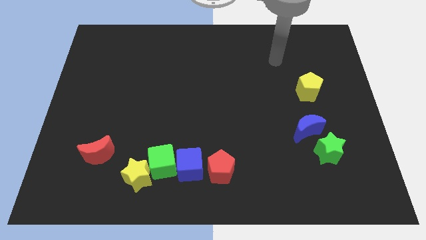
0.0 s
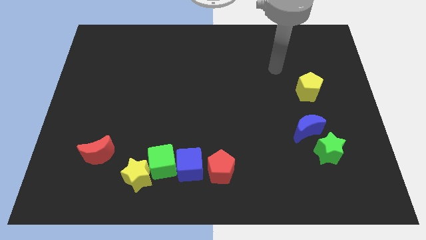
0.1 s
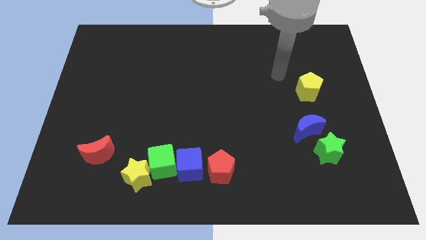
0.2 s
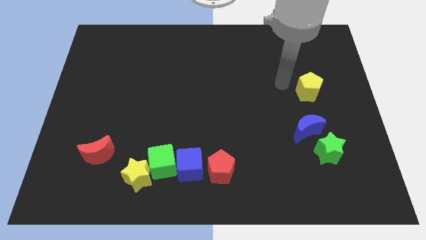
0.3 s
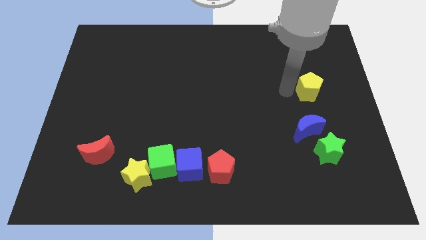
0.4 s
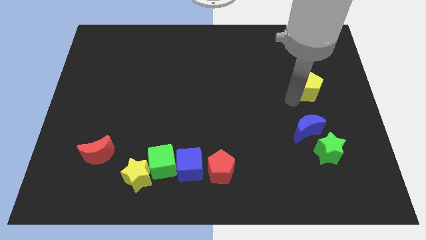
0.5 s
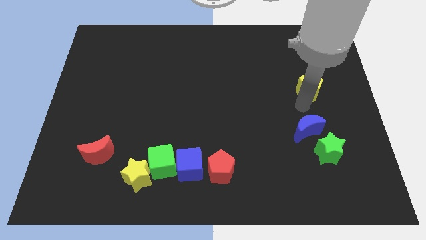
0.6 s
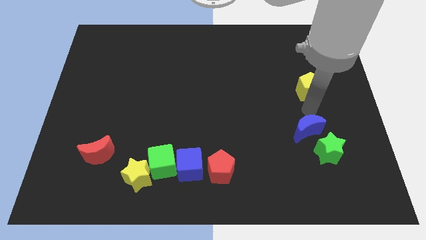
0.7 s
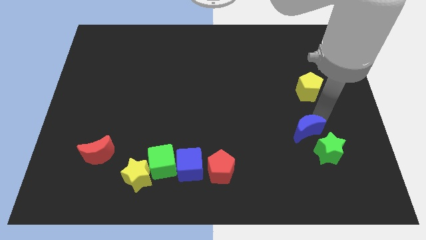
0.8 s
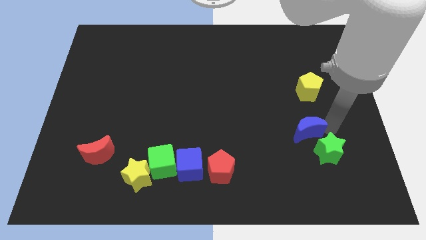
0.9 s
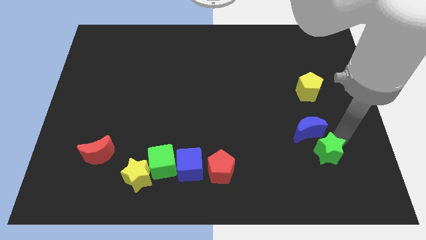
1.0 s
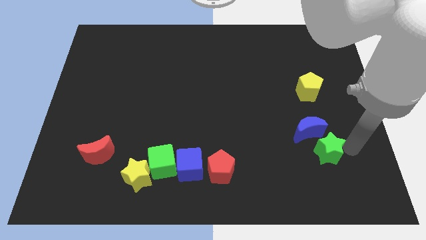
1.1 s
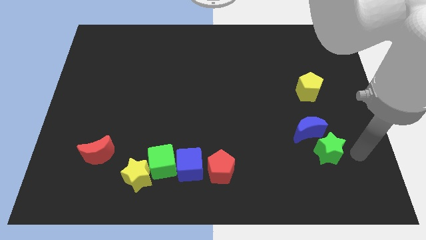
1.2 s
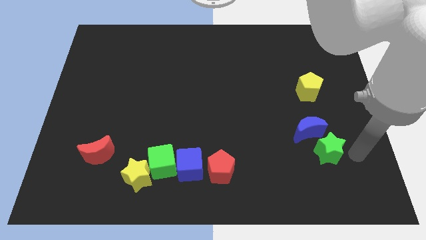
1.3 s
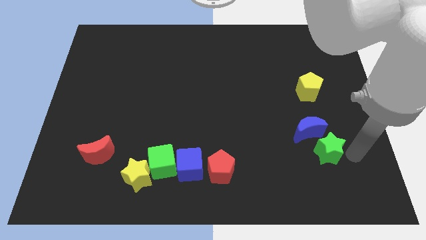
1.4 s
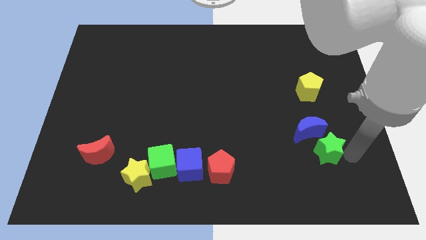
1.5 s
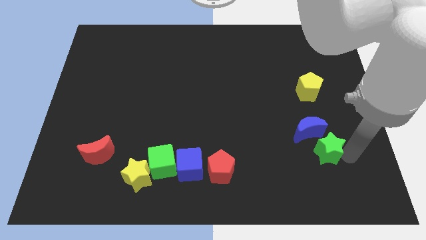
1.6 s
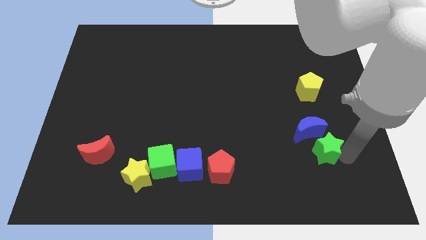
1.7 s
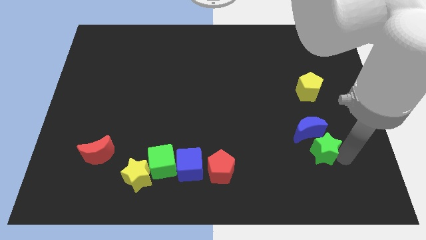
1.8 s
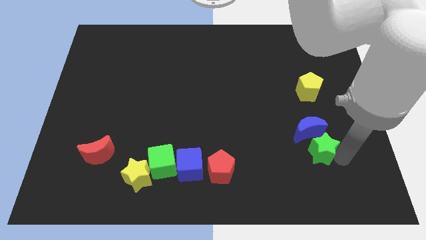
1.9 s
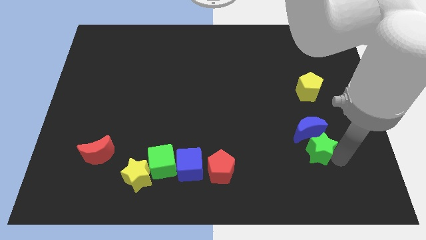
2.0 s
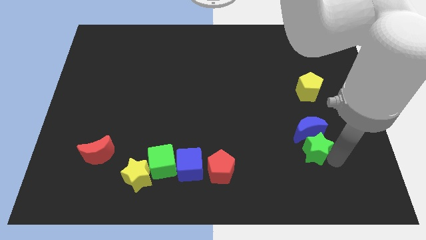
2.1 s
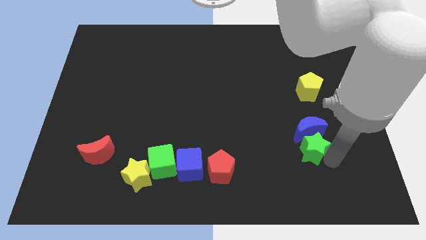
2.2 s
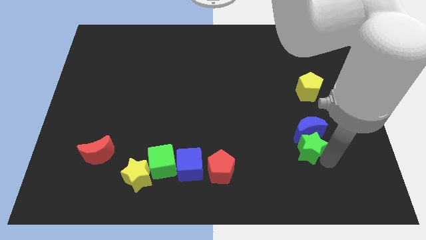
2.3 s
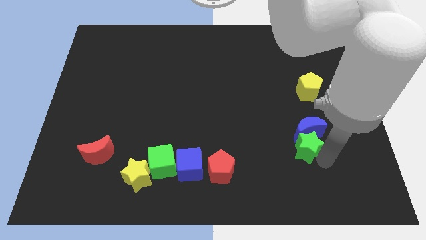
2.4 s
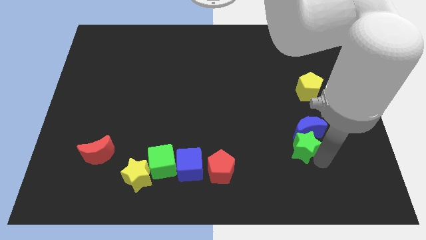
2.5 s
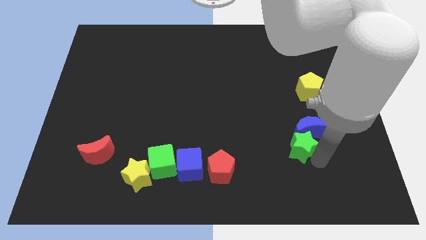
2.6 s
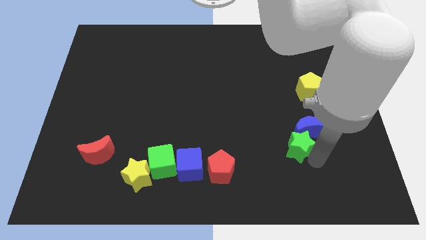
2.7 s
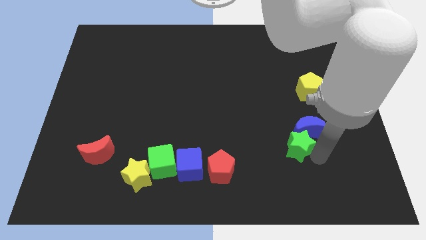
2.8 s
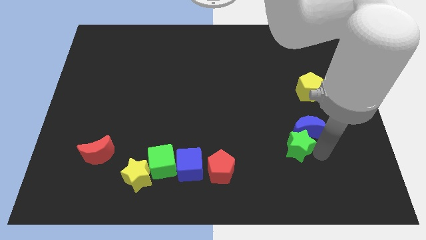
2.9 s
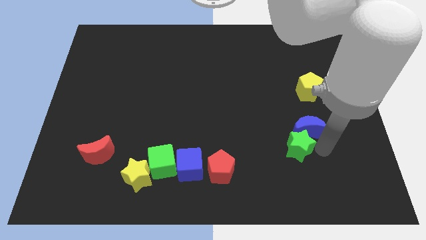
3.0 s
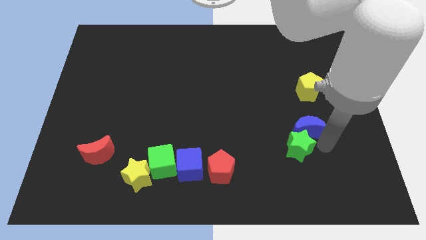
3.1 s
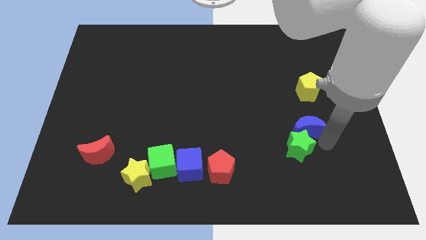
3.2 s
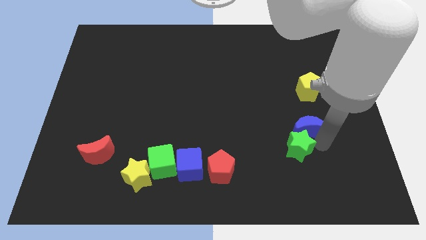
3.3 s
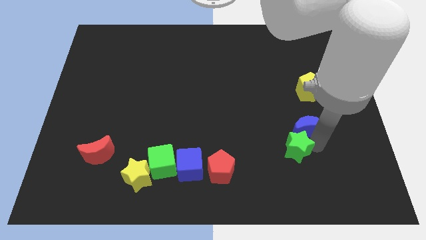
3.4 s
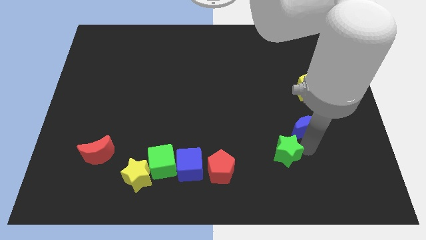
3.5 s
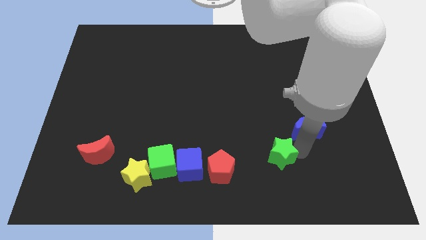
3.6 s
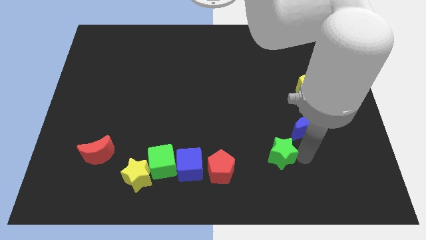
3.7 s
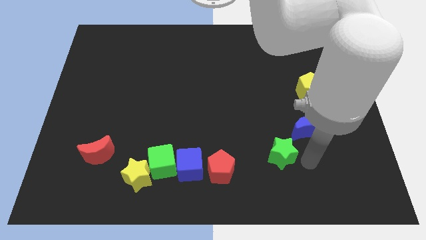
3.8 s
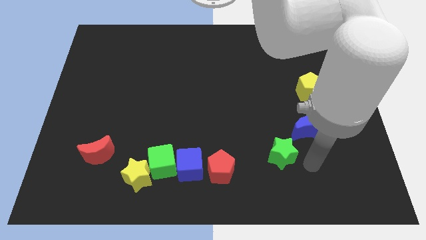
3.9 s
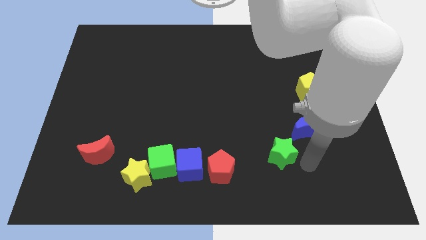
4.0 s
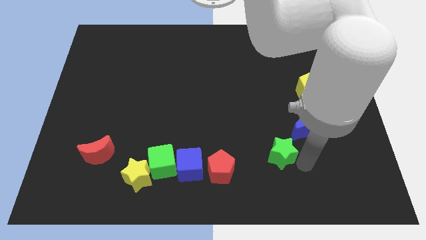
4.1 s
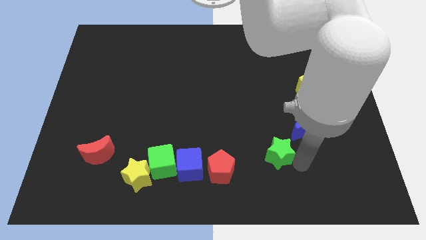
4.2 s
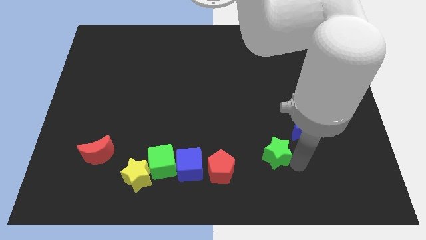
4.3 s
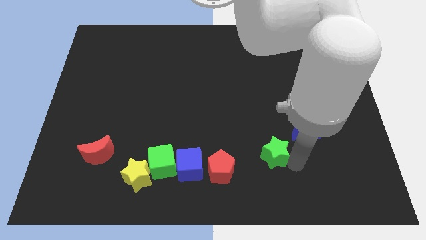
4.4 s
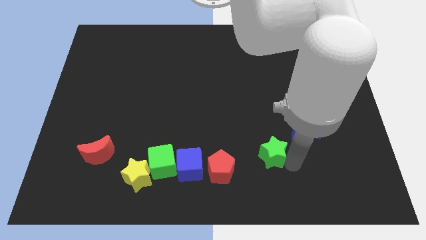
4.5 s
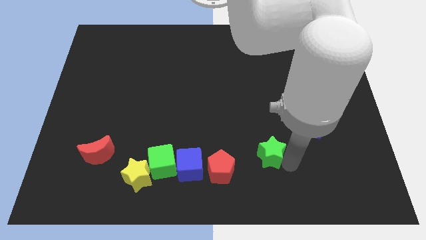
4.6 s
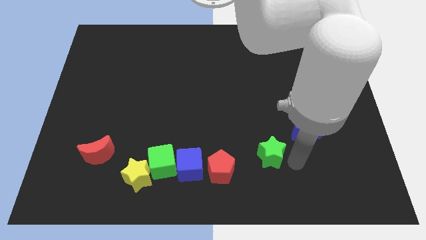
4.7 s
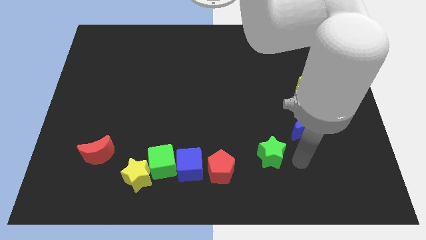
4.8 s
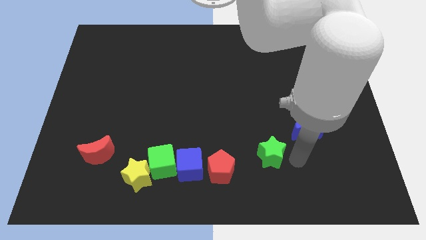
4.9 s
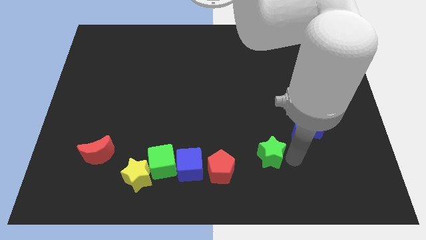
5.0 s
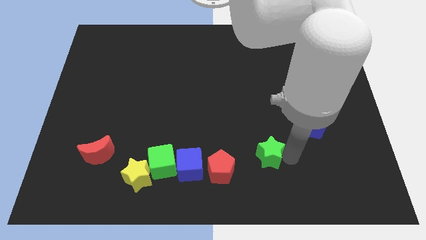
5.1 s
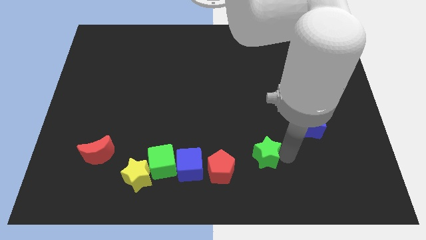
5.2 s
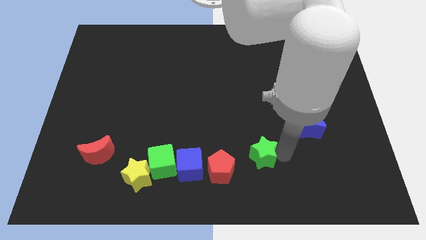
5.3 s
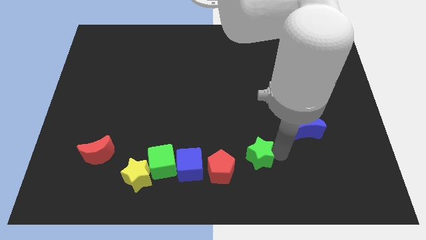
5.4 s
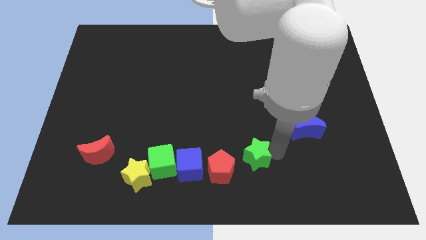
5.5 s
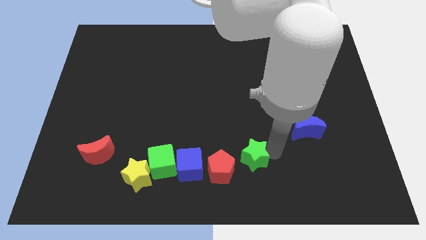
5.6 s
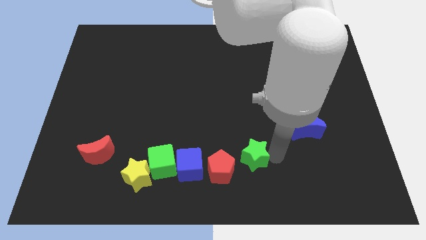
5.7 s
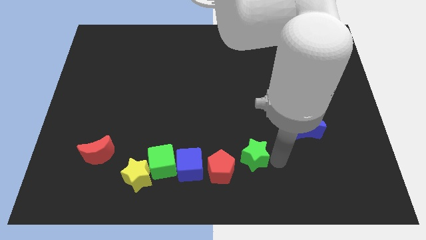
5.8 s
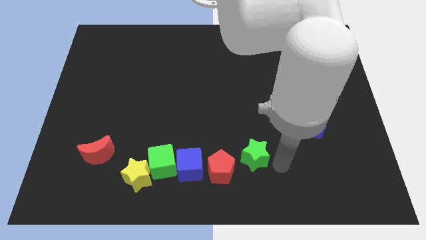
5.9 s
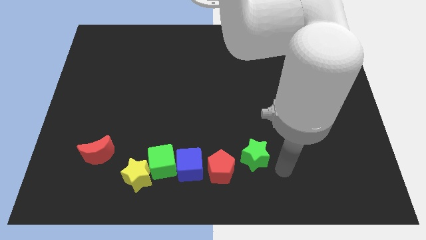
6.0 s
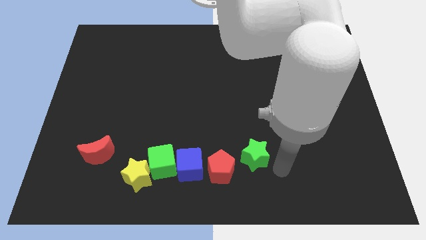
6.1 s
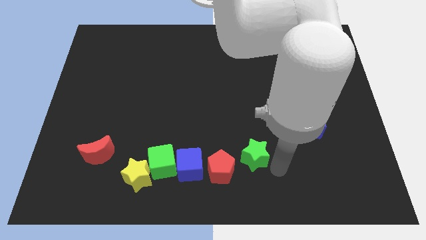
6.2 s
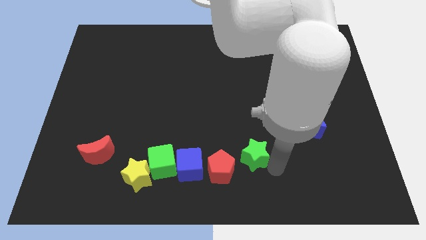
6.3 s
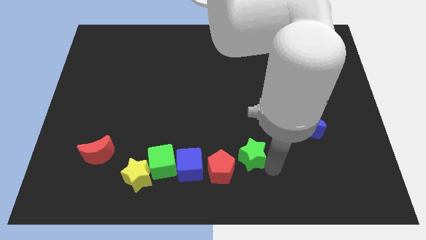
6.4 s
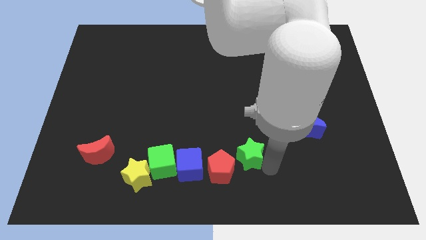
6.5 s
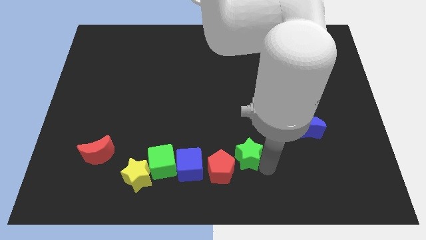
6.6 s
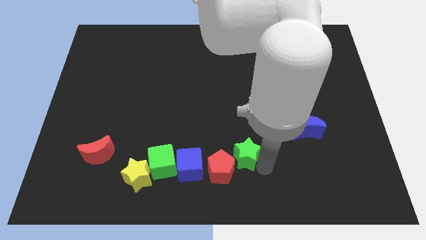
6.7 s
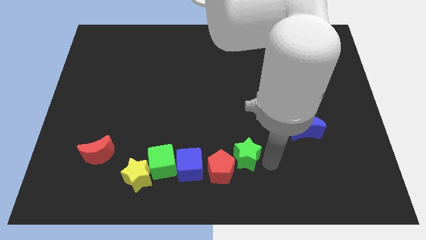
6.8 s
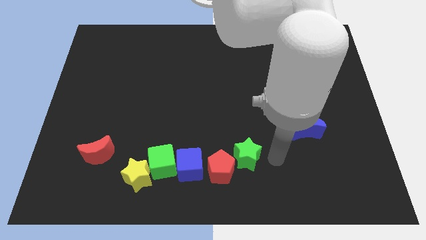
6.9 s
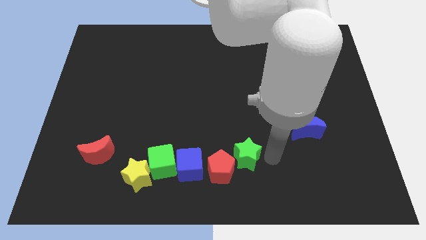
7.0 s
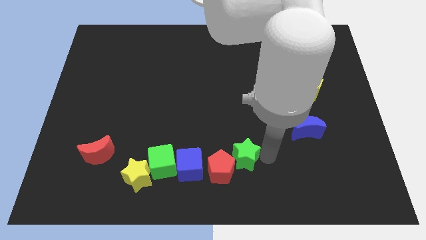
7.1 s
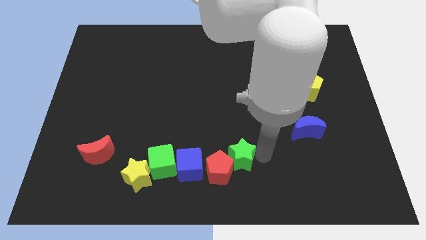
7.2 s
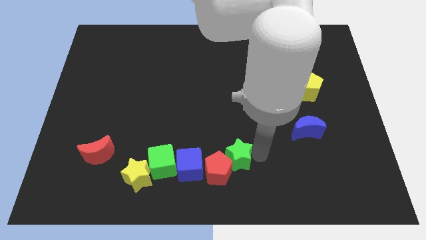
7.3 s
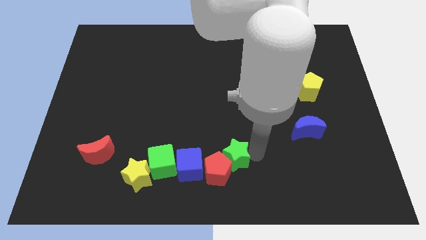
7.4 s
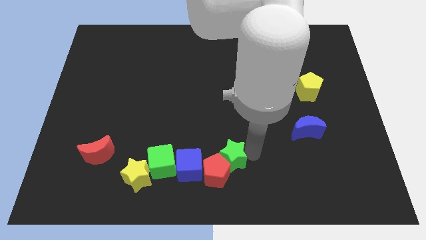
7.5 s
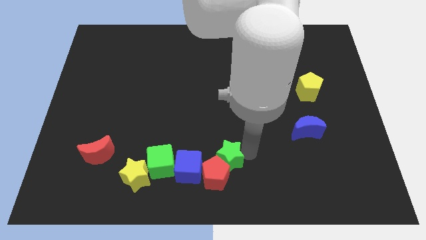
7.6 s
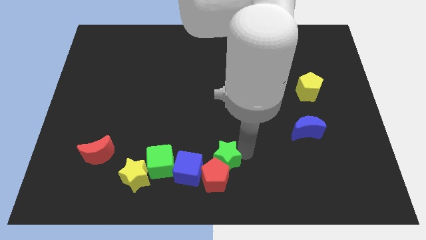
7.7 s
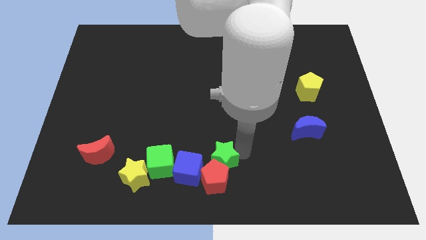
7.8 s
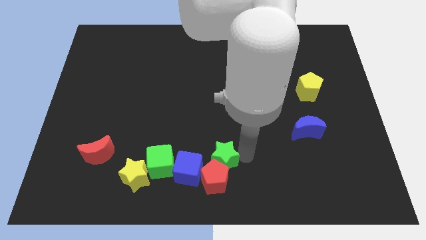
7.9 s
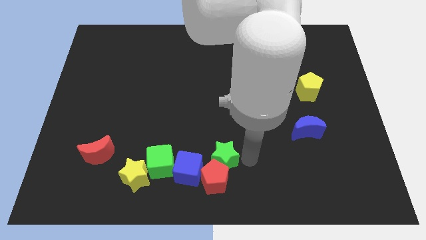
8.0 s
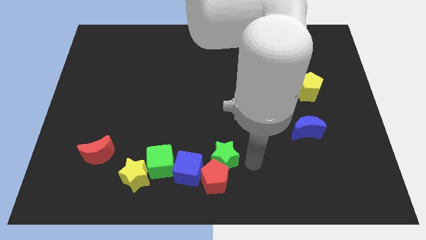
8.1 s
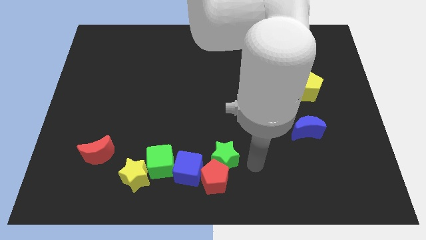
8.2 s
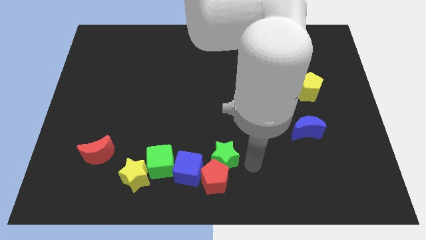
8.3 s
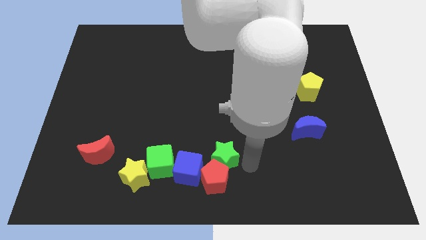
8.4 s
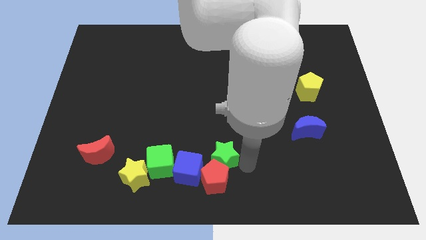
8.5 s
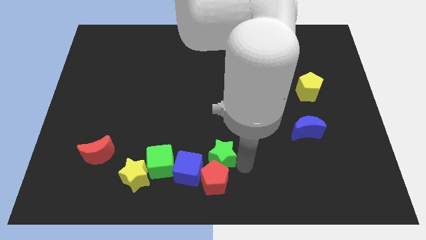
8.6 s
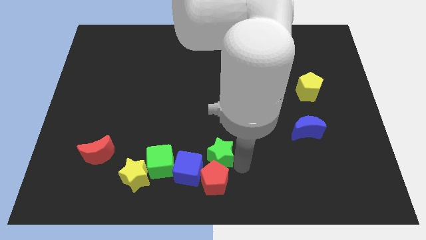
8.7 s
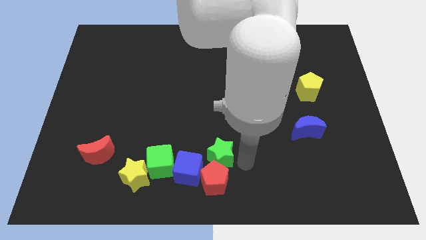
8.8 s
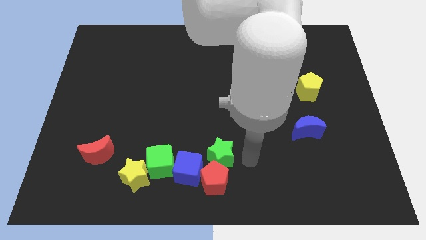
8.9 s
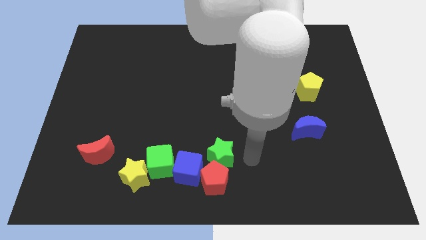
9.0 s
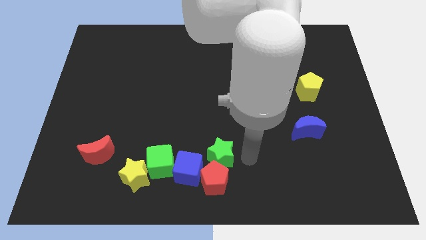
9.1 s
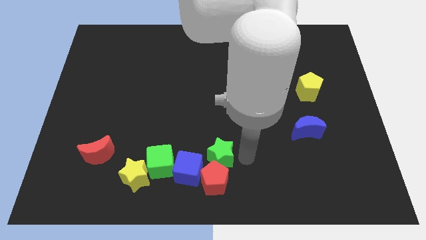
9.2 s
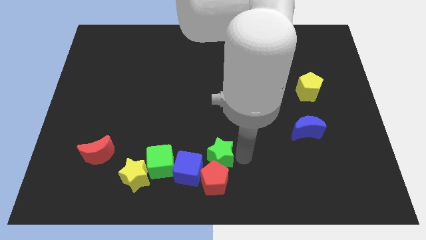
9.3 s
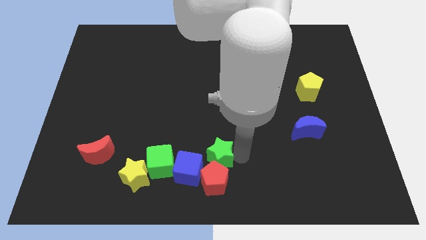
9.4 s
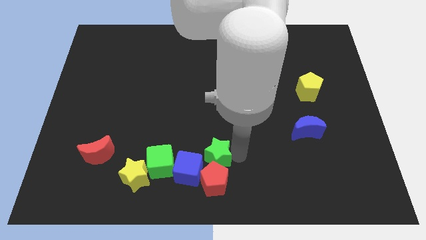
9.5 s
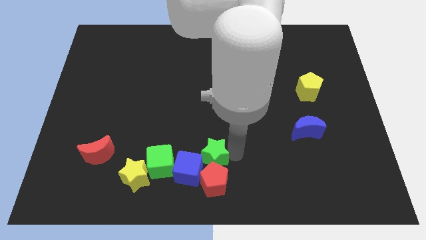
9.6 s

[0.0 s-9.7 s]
slide the green star to the blue cube
